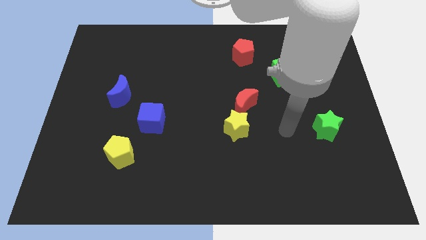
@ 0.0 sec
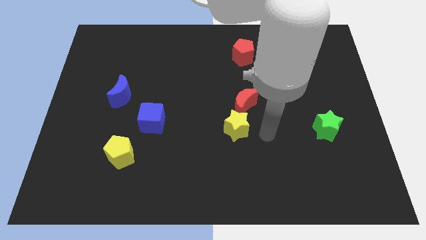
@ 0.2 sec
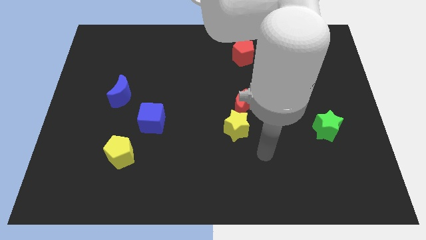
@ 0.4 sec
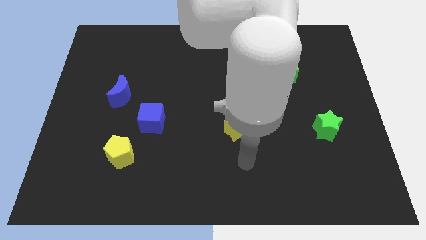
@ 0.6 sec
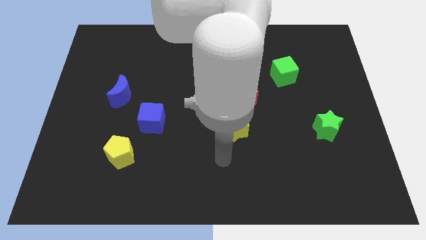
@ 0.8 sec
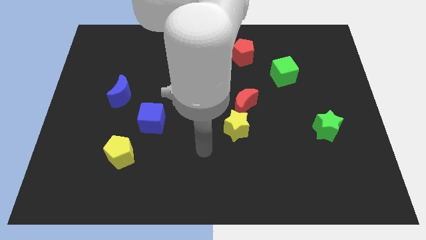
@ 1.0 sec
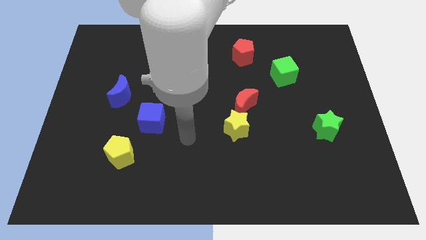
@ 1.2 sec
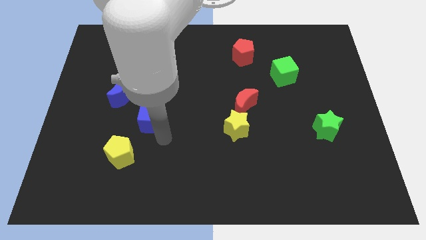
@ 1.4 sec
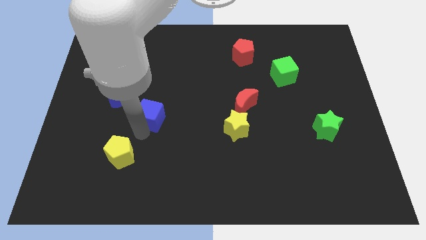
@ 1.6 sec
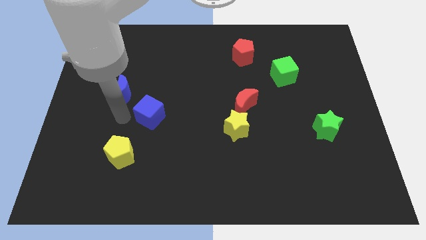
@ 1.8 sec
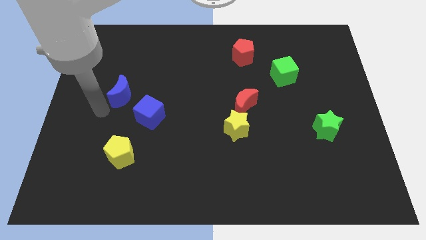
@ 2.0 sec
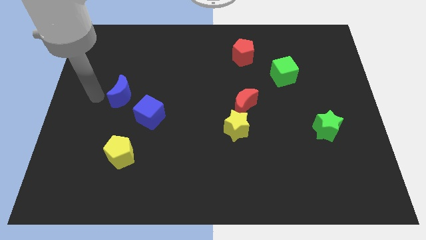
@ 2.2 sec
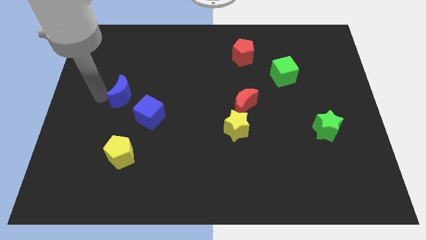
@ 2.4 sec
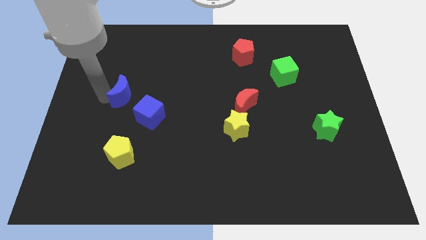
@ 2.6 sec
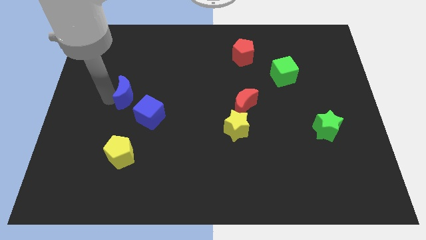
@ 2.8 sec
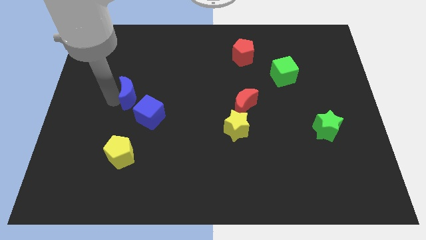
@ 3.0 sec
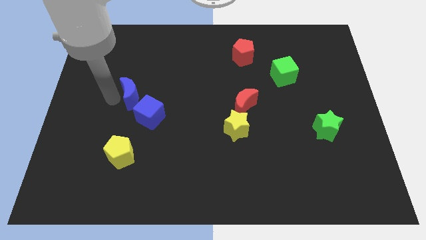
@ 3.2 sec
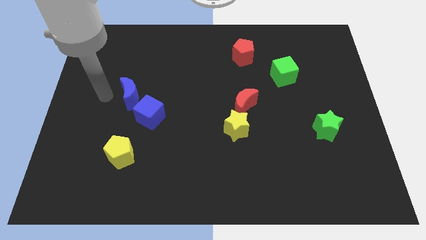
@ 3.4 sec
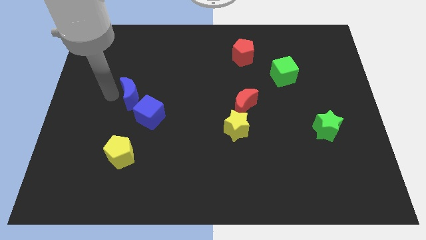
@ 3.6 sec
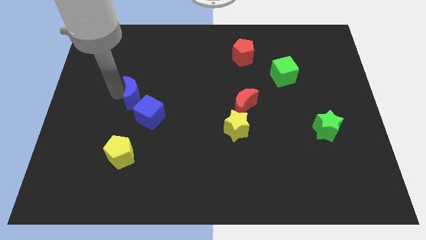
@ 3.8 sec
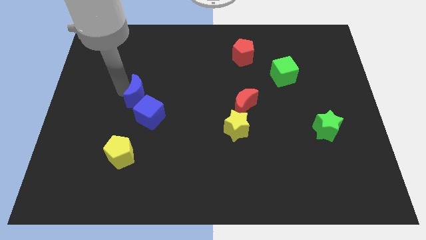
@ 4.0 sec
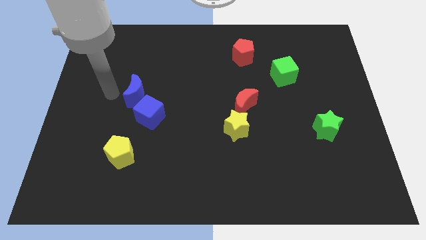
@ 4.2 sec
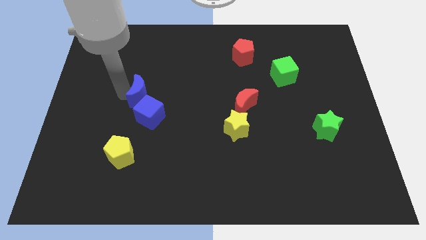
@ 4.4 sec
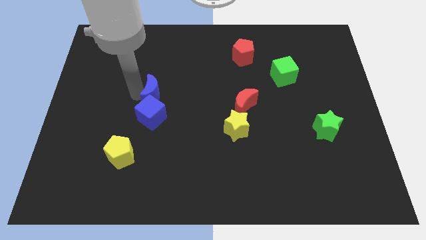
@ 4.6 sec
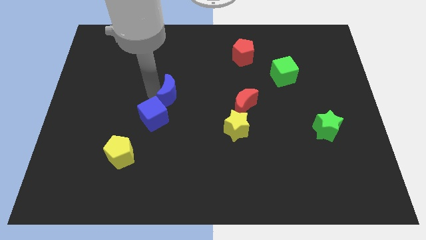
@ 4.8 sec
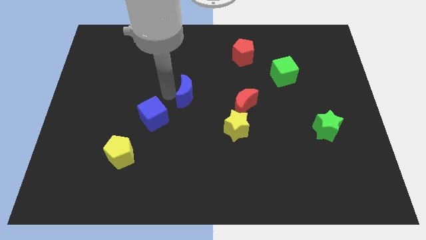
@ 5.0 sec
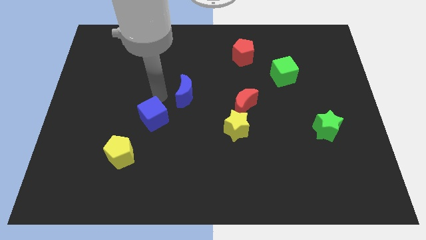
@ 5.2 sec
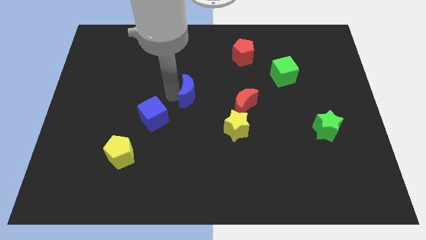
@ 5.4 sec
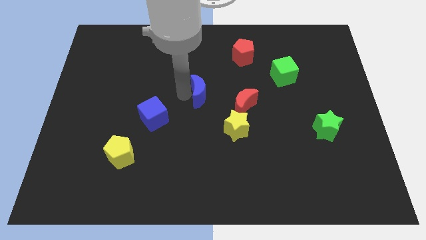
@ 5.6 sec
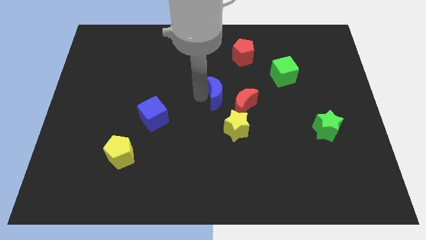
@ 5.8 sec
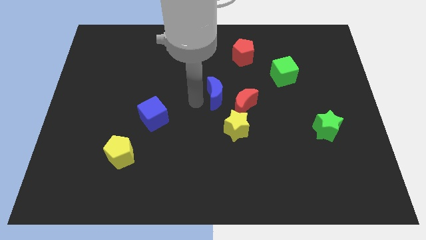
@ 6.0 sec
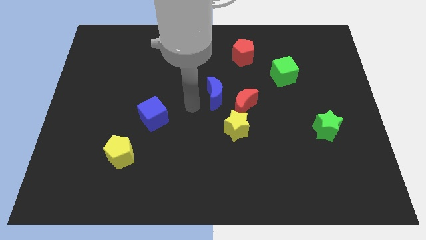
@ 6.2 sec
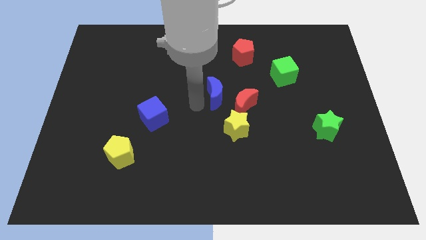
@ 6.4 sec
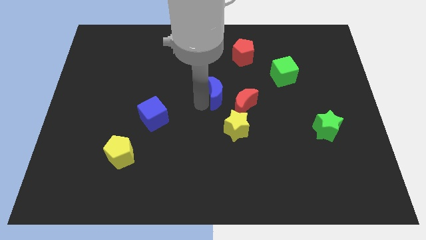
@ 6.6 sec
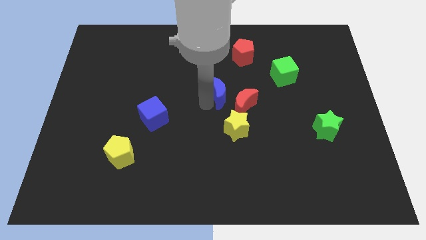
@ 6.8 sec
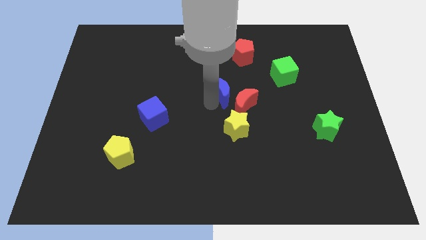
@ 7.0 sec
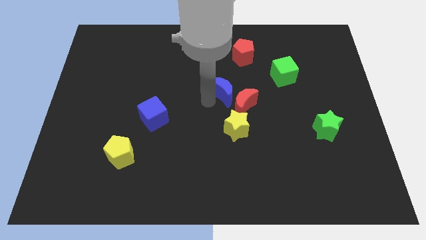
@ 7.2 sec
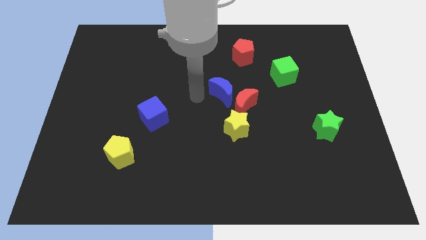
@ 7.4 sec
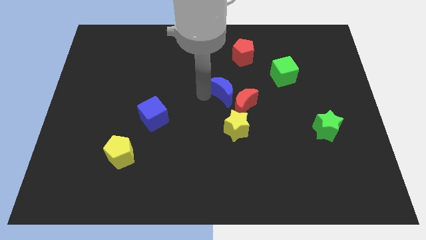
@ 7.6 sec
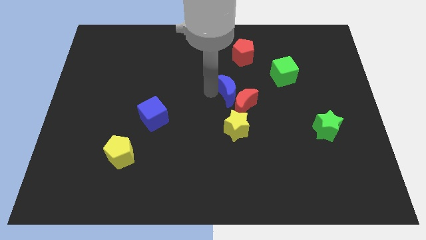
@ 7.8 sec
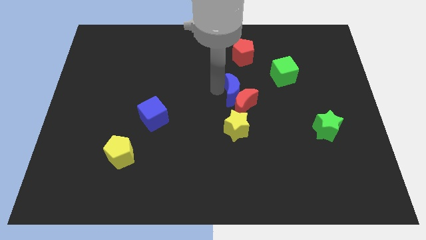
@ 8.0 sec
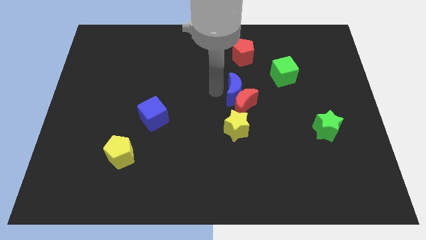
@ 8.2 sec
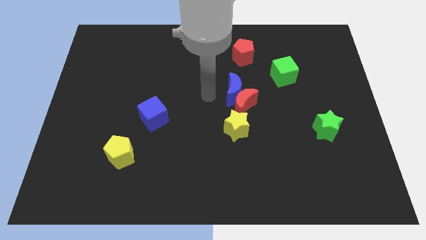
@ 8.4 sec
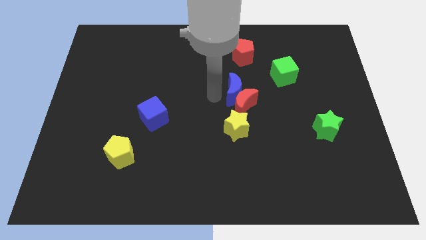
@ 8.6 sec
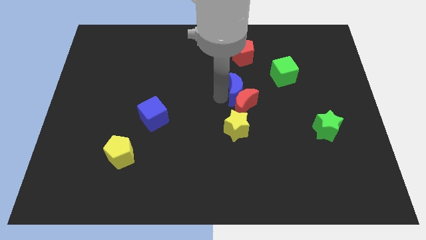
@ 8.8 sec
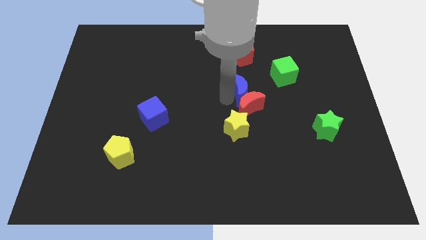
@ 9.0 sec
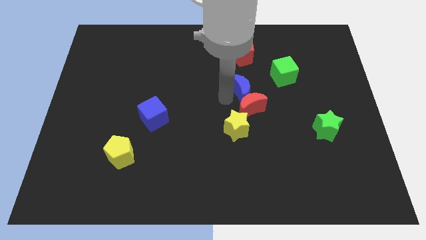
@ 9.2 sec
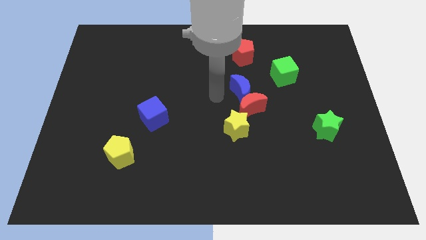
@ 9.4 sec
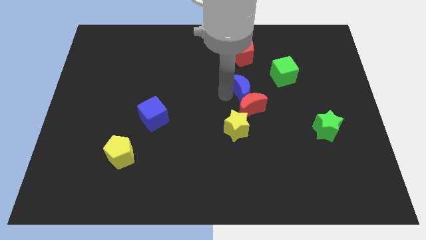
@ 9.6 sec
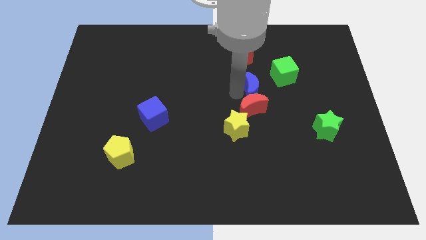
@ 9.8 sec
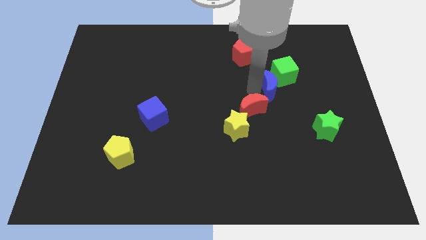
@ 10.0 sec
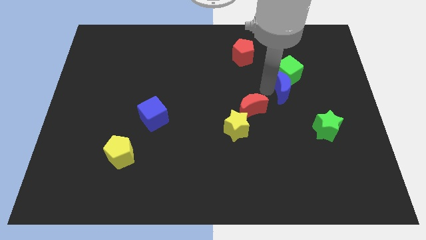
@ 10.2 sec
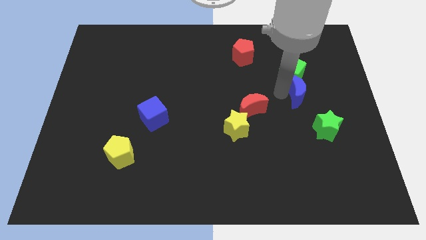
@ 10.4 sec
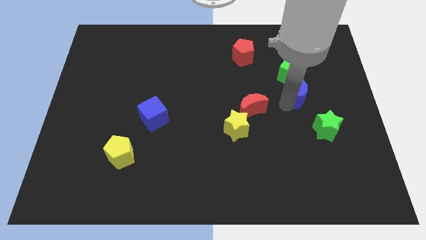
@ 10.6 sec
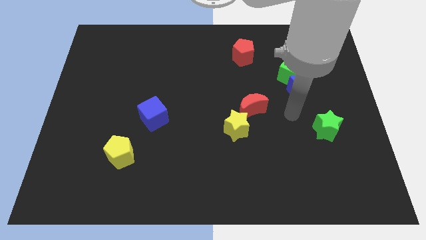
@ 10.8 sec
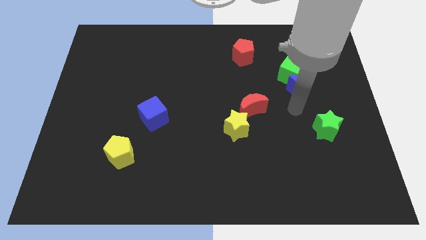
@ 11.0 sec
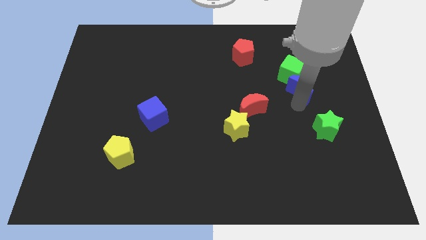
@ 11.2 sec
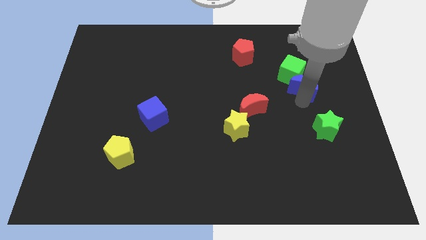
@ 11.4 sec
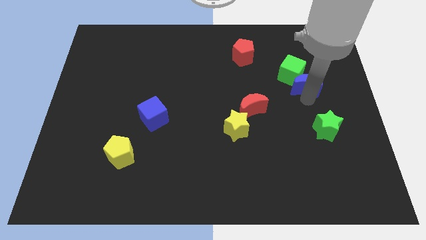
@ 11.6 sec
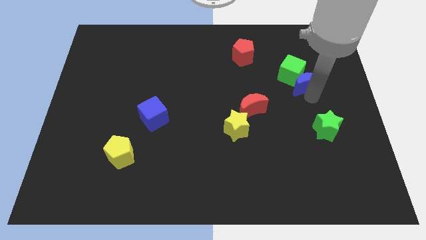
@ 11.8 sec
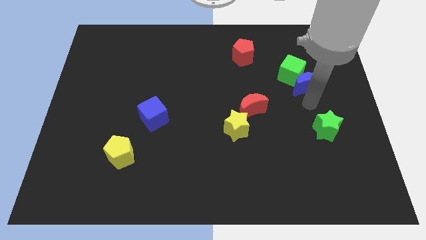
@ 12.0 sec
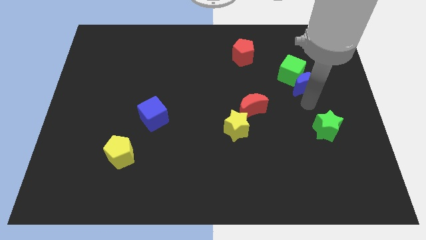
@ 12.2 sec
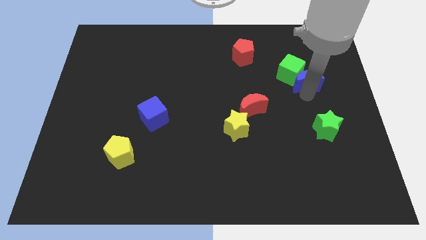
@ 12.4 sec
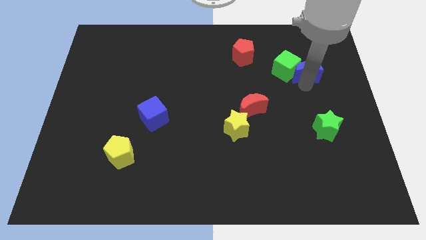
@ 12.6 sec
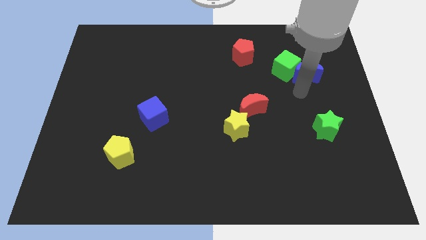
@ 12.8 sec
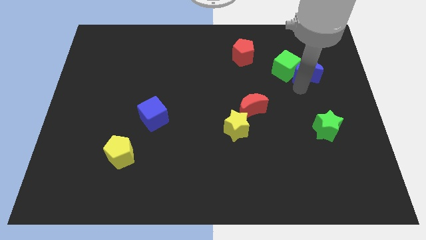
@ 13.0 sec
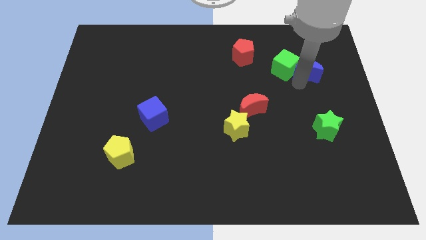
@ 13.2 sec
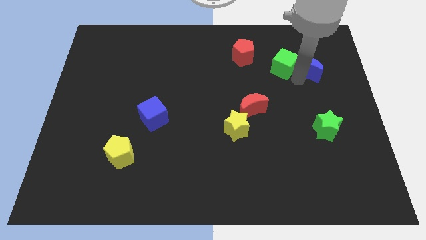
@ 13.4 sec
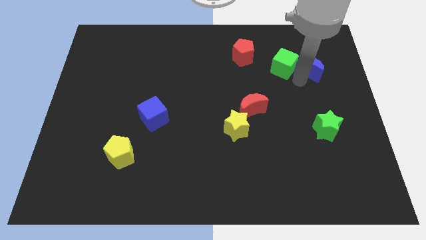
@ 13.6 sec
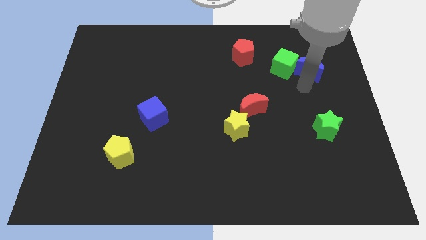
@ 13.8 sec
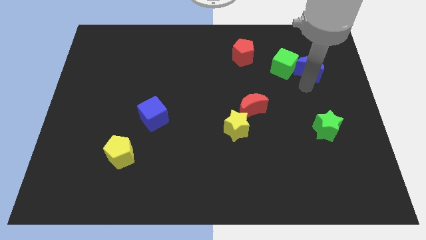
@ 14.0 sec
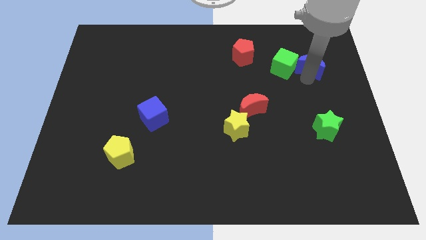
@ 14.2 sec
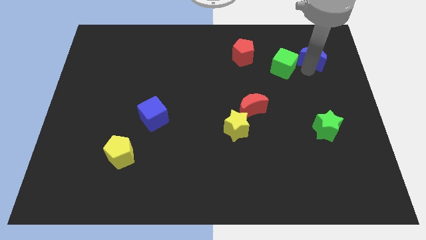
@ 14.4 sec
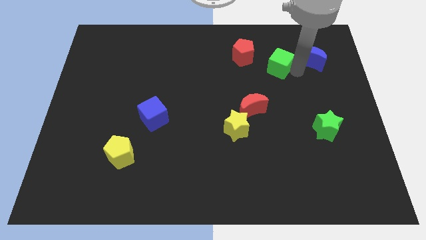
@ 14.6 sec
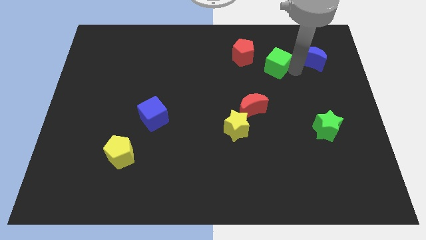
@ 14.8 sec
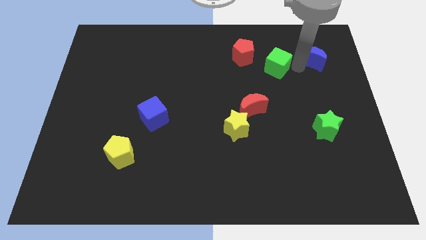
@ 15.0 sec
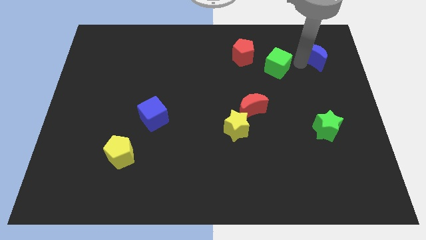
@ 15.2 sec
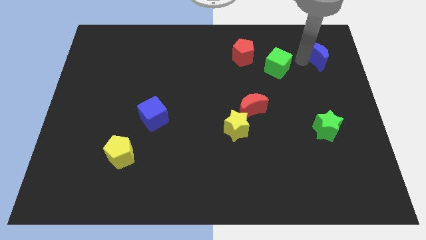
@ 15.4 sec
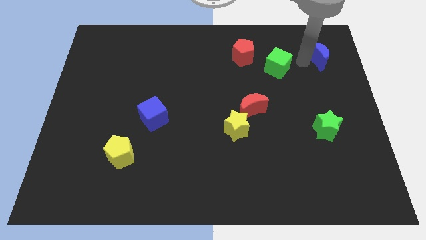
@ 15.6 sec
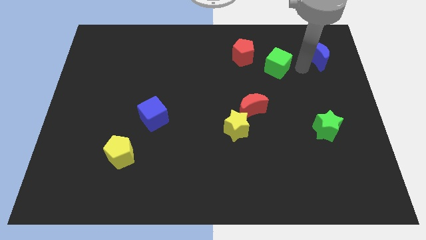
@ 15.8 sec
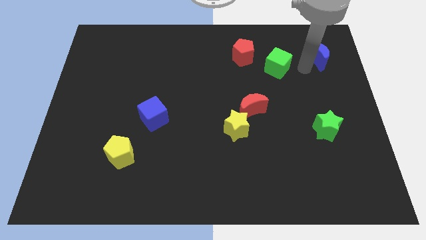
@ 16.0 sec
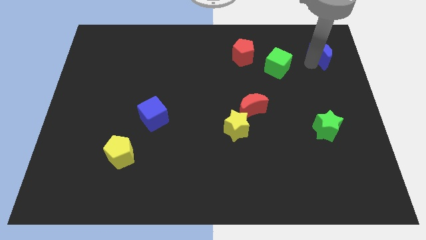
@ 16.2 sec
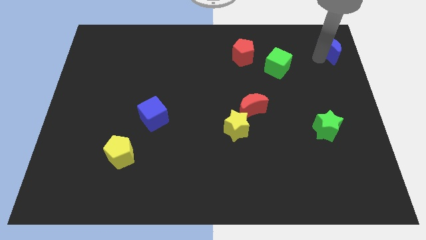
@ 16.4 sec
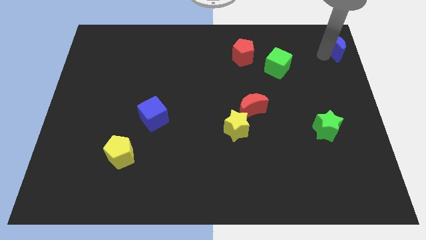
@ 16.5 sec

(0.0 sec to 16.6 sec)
move the blue moon to the top right
